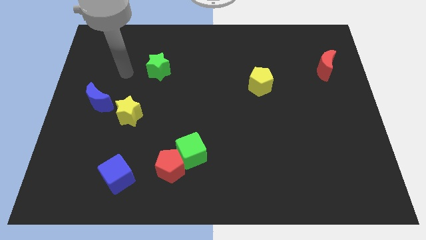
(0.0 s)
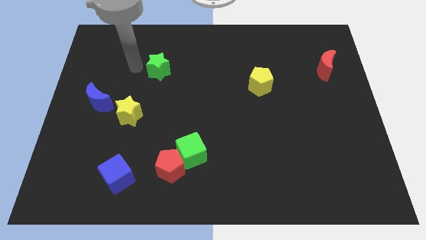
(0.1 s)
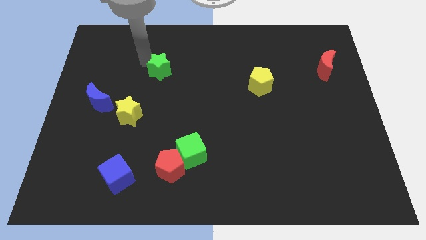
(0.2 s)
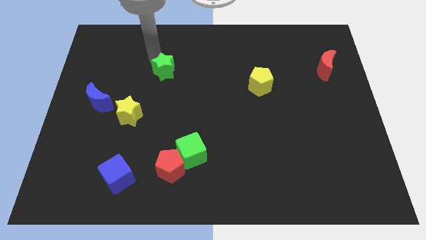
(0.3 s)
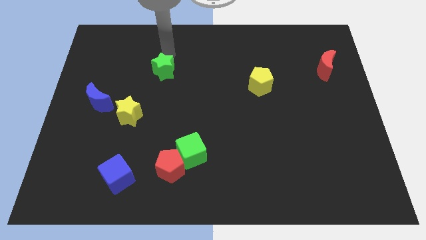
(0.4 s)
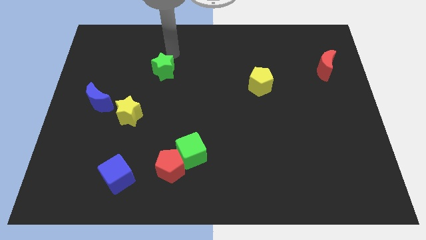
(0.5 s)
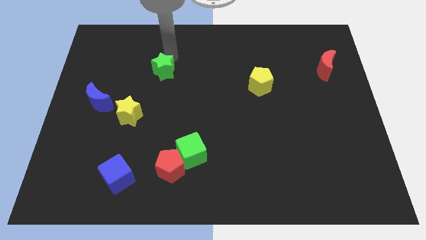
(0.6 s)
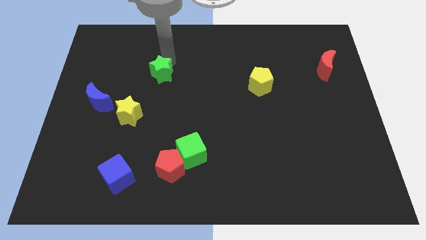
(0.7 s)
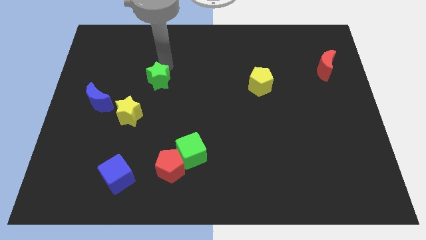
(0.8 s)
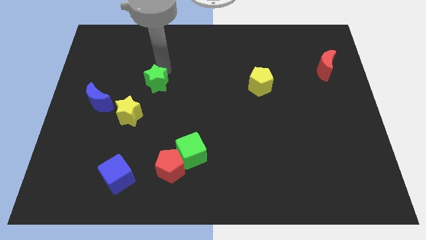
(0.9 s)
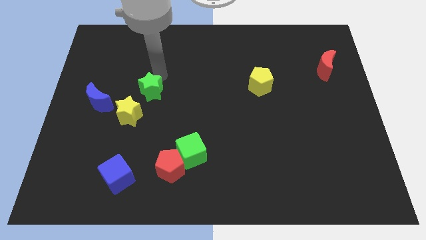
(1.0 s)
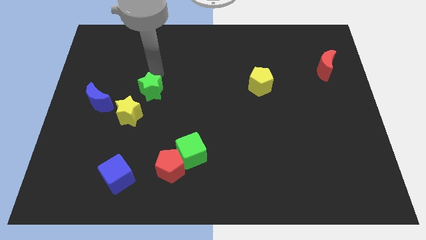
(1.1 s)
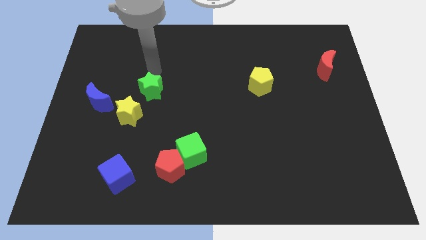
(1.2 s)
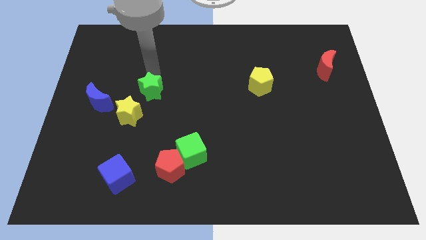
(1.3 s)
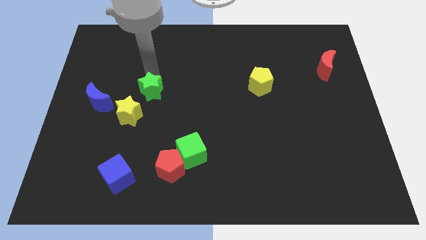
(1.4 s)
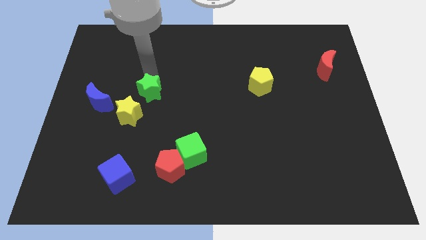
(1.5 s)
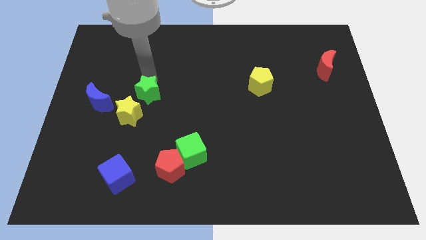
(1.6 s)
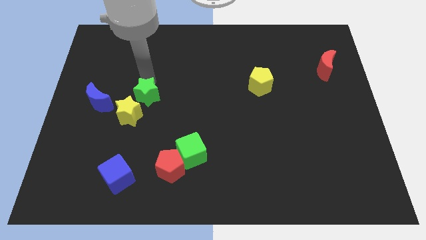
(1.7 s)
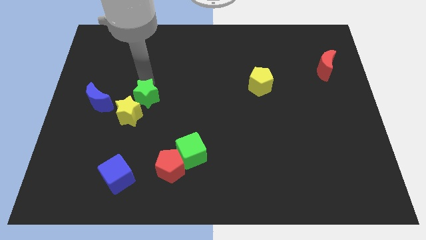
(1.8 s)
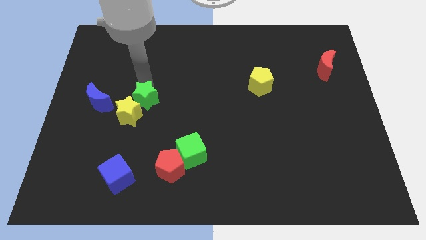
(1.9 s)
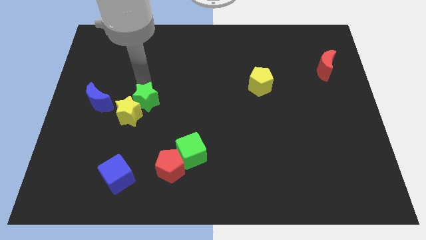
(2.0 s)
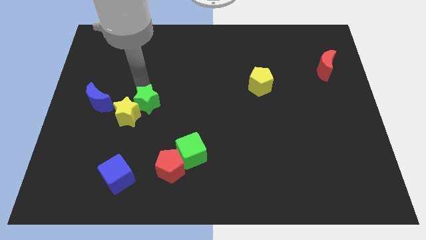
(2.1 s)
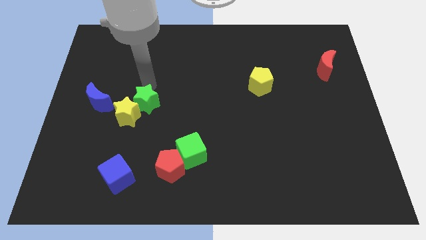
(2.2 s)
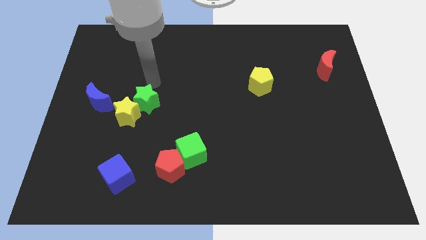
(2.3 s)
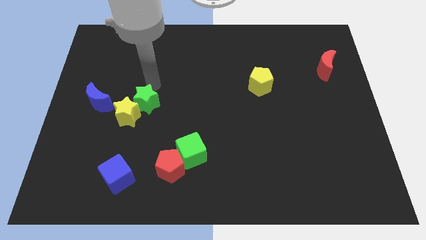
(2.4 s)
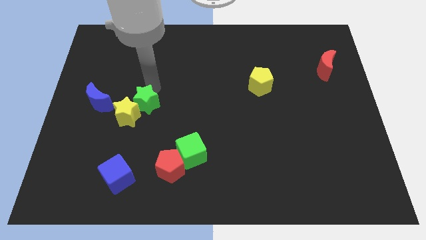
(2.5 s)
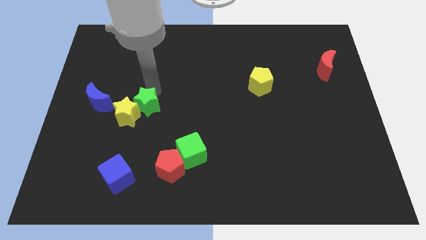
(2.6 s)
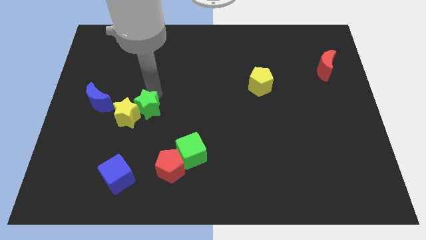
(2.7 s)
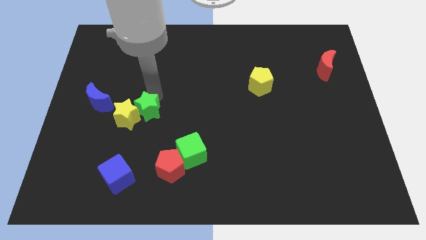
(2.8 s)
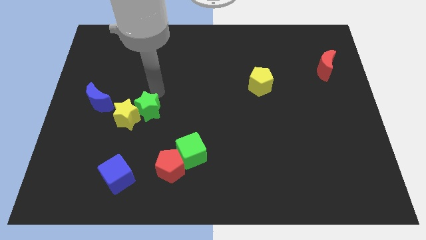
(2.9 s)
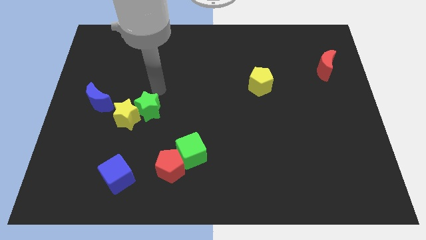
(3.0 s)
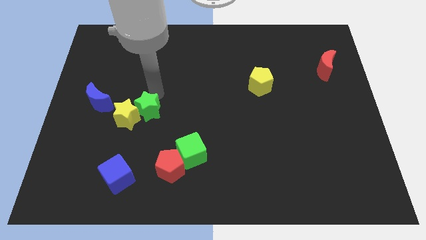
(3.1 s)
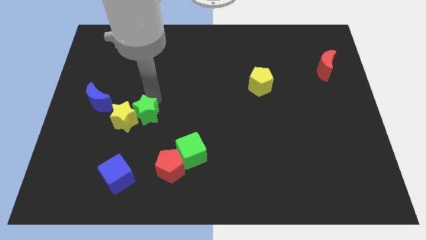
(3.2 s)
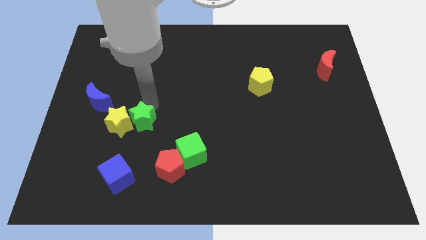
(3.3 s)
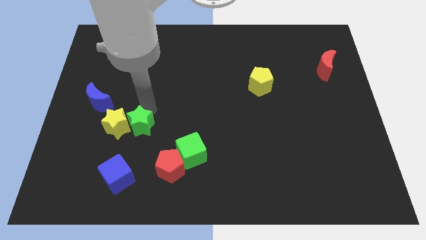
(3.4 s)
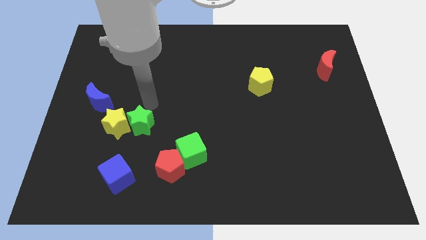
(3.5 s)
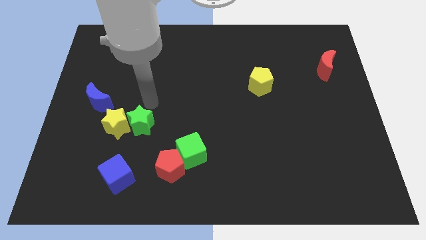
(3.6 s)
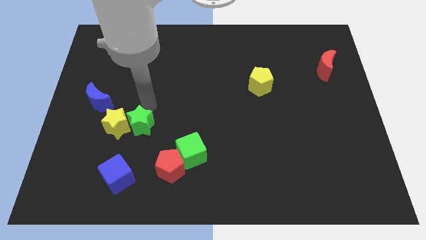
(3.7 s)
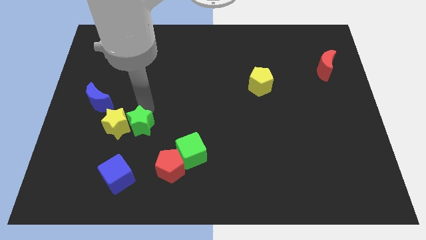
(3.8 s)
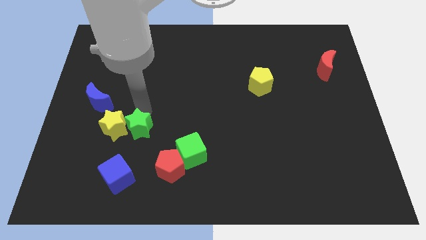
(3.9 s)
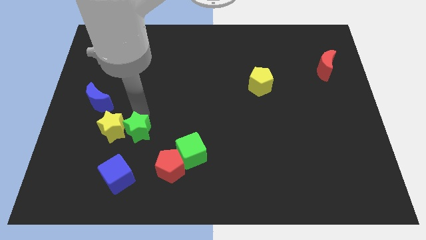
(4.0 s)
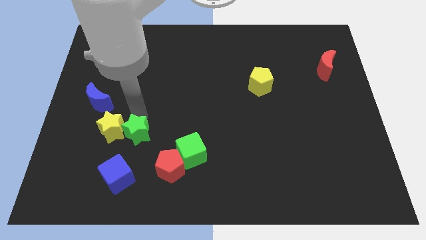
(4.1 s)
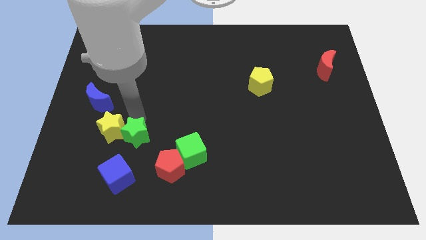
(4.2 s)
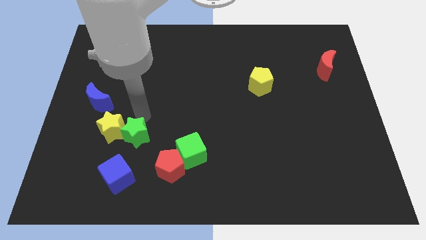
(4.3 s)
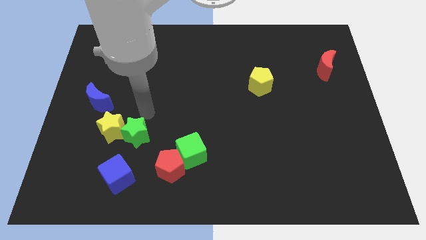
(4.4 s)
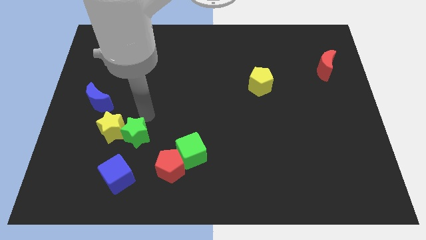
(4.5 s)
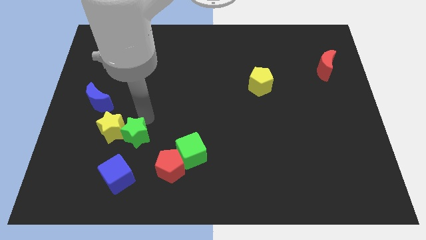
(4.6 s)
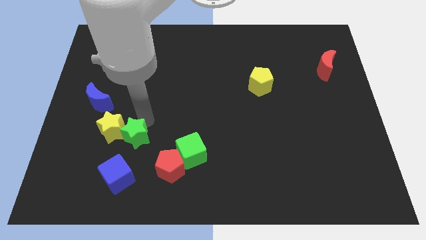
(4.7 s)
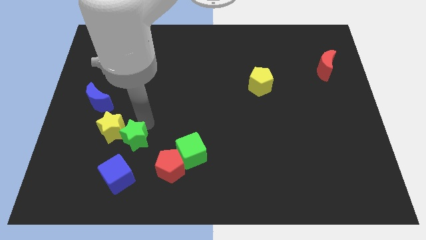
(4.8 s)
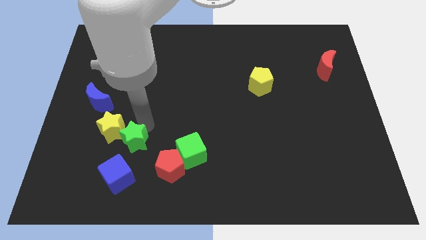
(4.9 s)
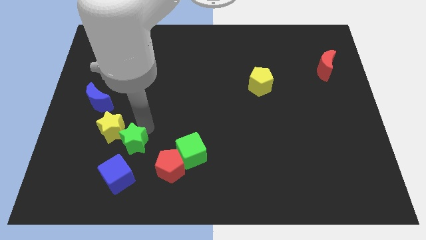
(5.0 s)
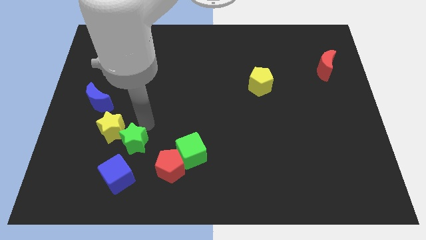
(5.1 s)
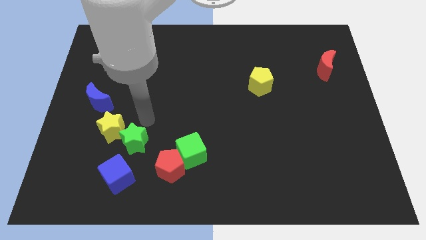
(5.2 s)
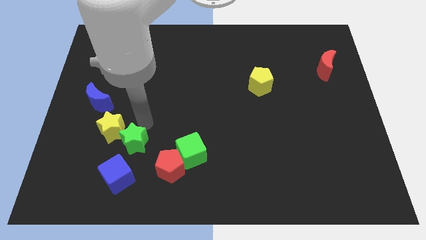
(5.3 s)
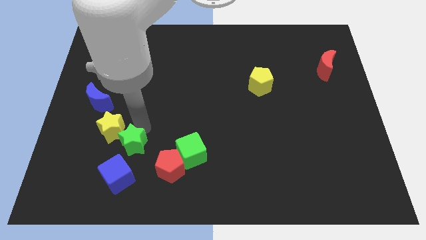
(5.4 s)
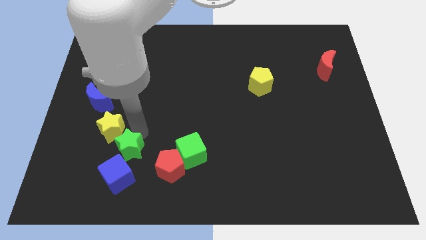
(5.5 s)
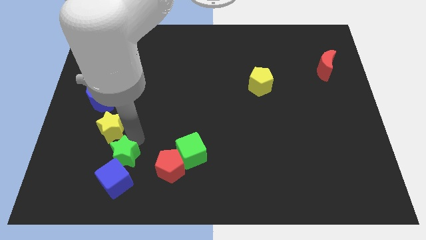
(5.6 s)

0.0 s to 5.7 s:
push the green star next to the blue cube

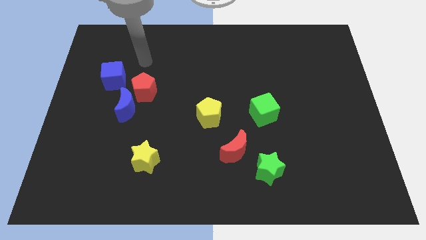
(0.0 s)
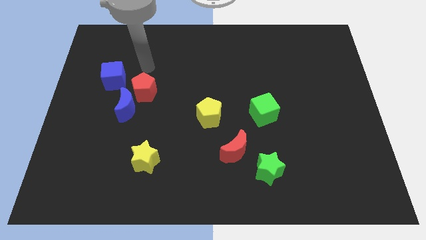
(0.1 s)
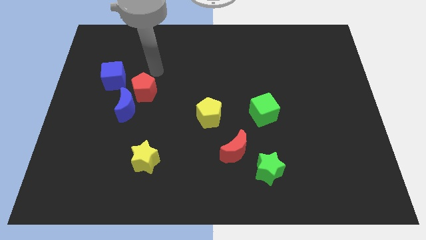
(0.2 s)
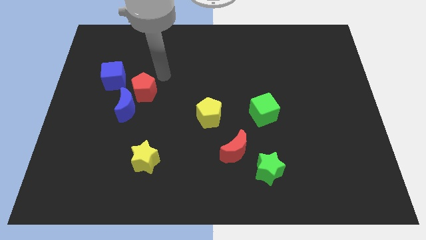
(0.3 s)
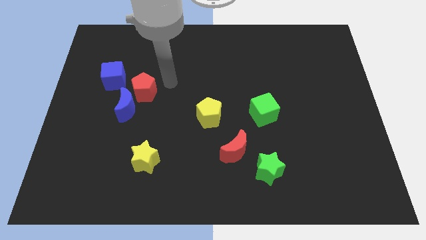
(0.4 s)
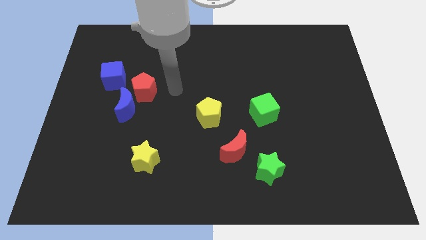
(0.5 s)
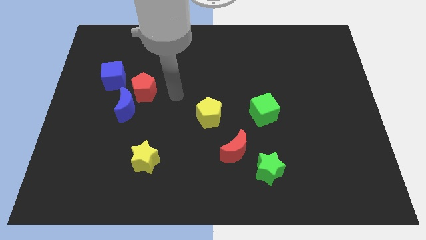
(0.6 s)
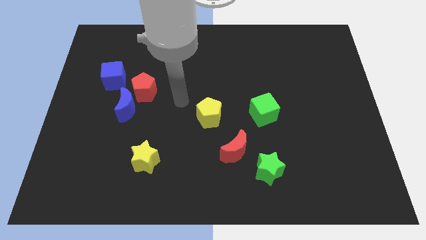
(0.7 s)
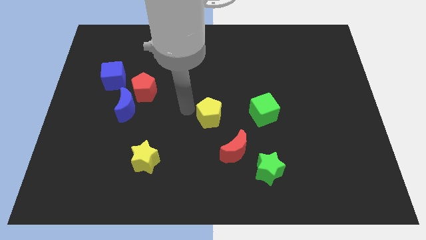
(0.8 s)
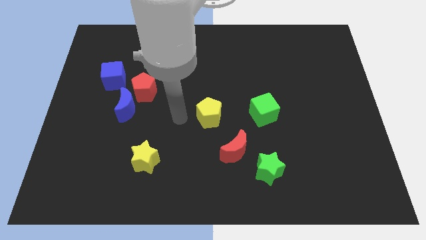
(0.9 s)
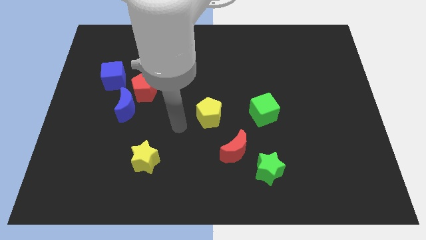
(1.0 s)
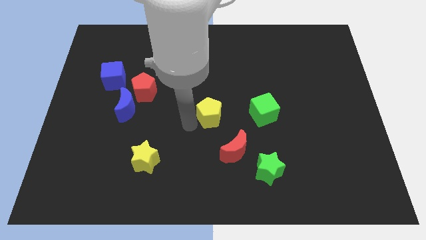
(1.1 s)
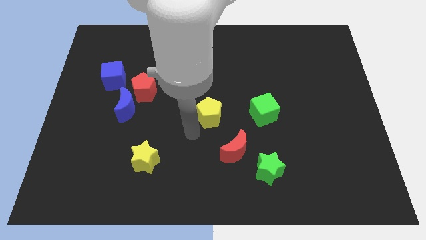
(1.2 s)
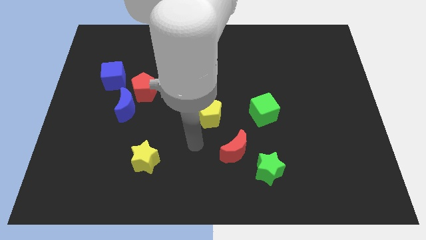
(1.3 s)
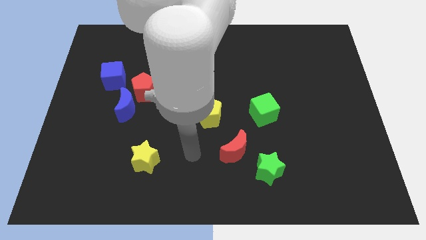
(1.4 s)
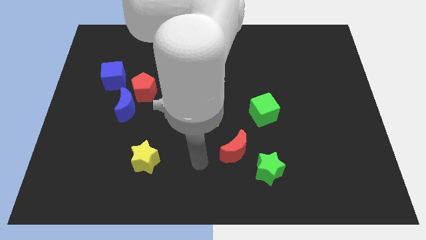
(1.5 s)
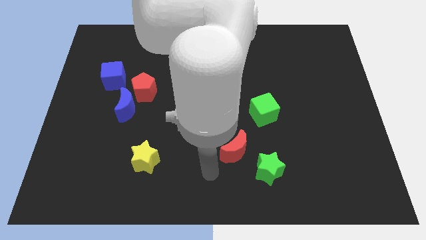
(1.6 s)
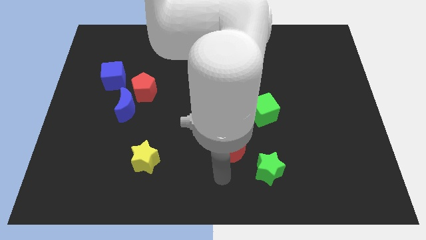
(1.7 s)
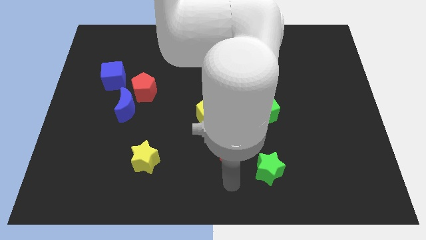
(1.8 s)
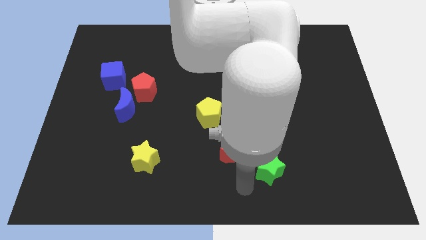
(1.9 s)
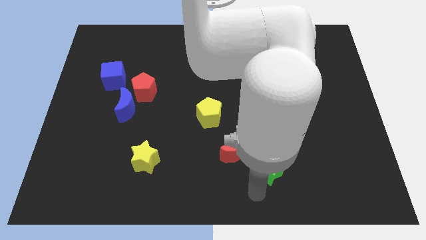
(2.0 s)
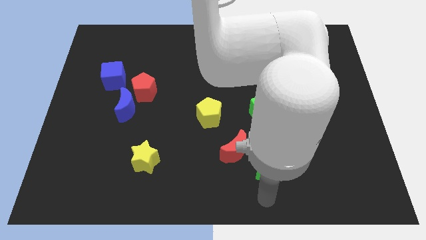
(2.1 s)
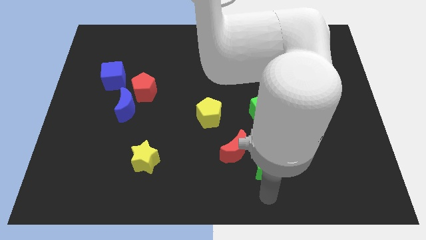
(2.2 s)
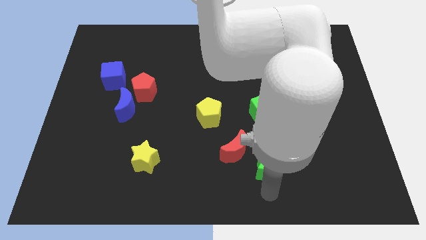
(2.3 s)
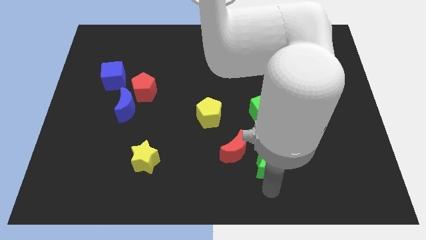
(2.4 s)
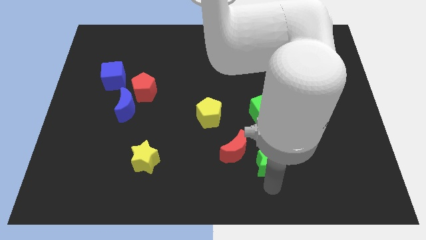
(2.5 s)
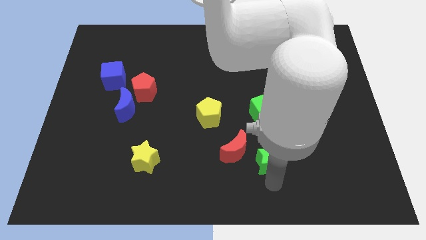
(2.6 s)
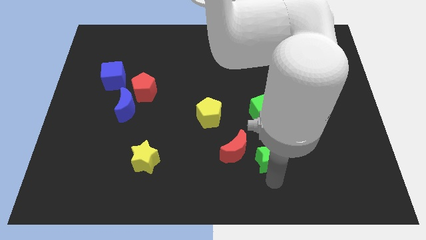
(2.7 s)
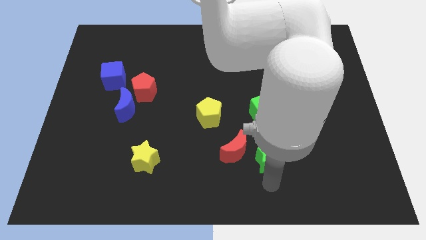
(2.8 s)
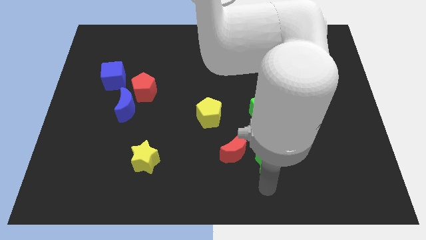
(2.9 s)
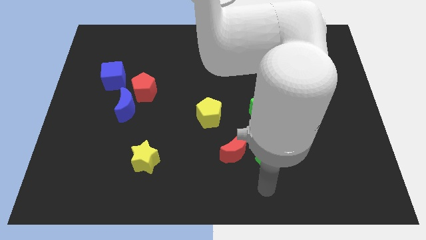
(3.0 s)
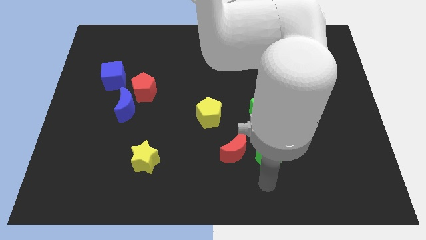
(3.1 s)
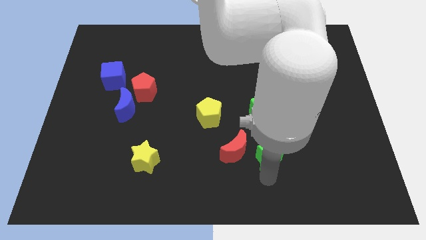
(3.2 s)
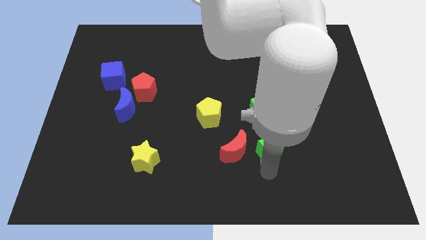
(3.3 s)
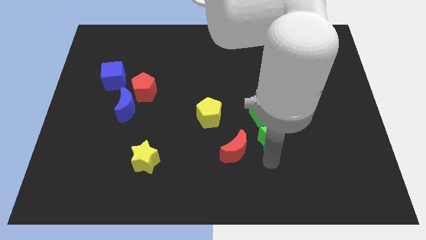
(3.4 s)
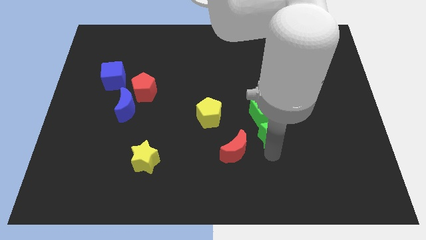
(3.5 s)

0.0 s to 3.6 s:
slide the green star next to the green cube
